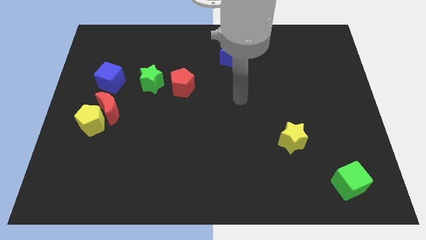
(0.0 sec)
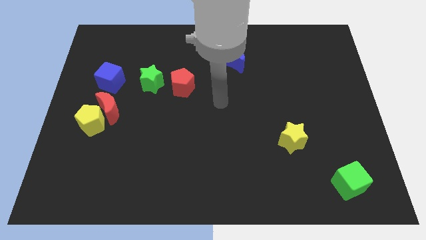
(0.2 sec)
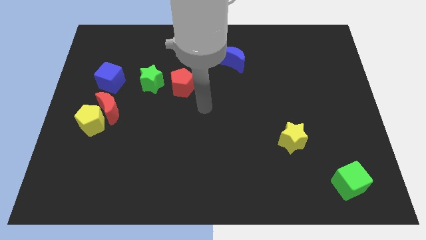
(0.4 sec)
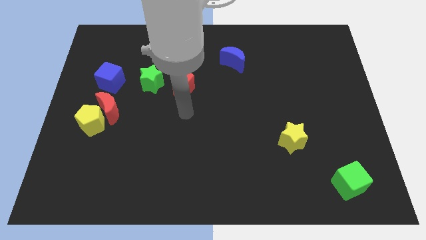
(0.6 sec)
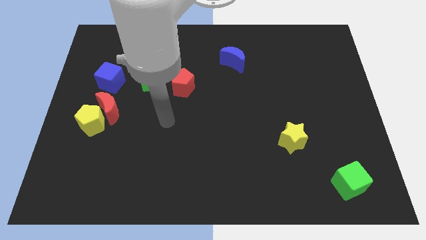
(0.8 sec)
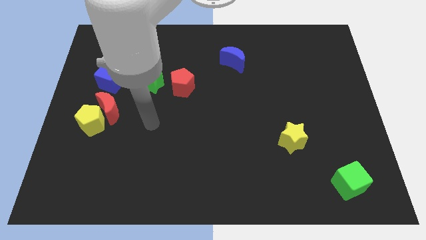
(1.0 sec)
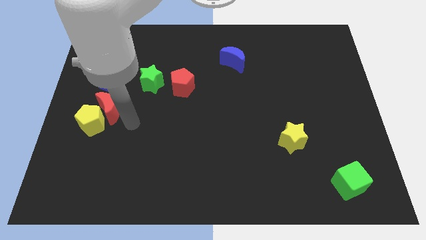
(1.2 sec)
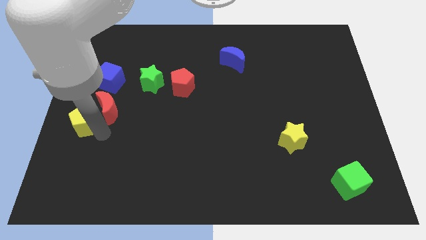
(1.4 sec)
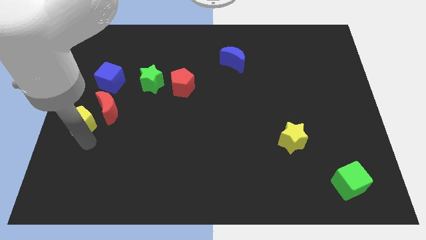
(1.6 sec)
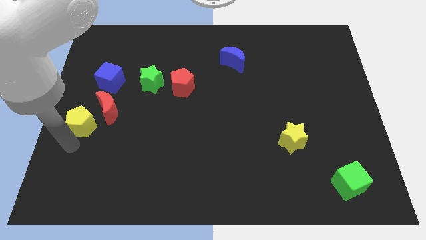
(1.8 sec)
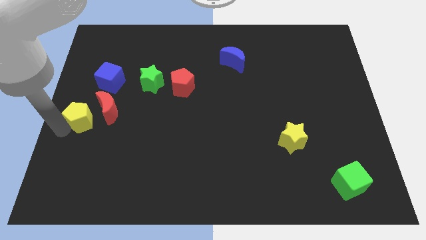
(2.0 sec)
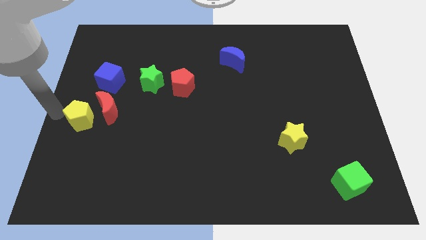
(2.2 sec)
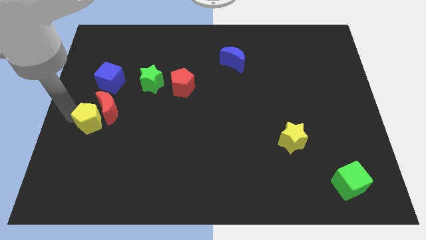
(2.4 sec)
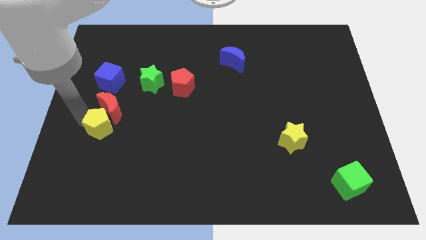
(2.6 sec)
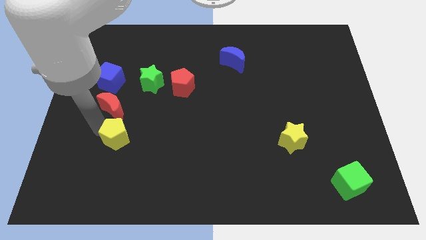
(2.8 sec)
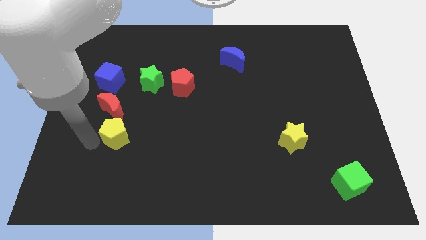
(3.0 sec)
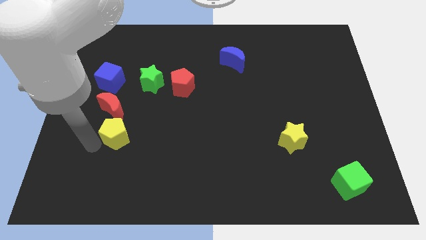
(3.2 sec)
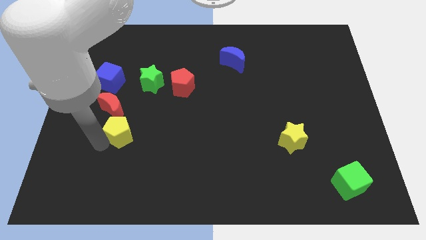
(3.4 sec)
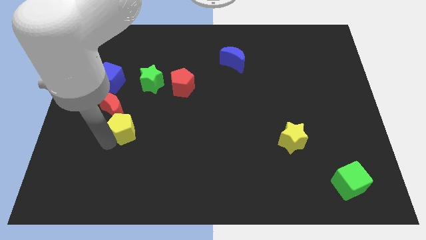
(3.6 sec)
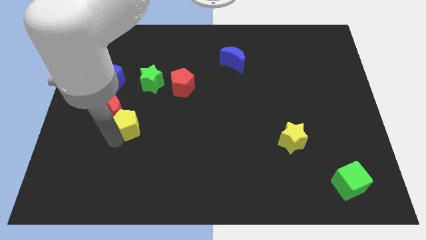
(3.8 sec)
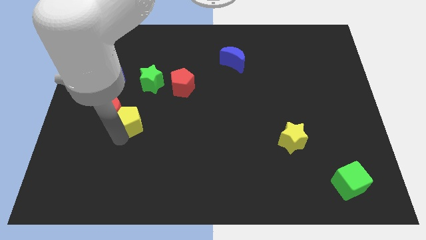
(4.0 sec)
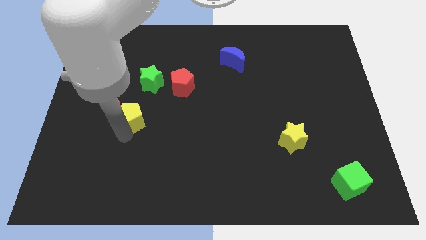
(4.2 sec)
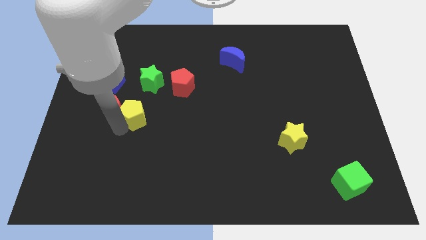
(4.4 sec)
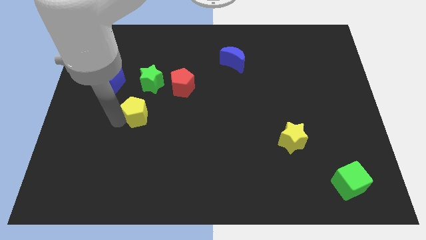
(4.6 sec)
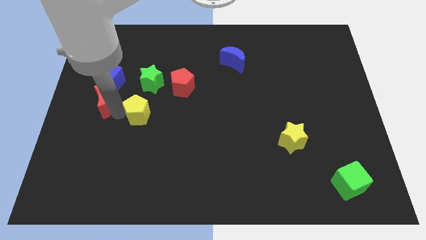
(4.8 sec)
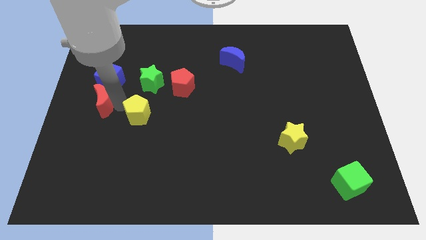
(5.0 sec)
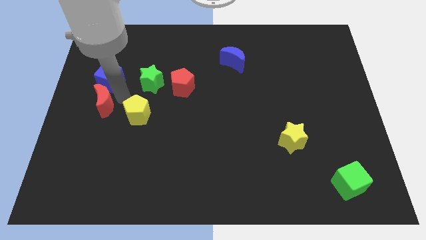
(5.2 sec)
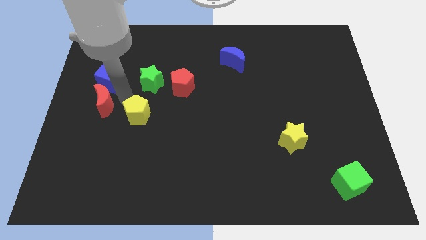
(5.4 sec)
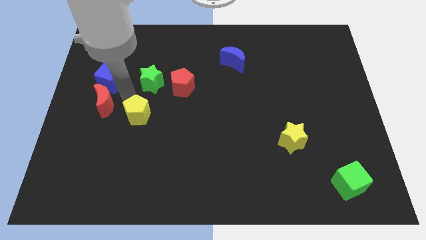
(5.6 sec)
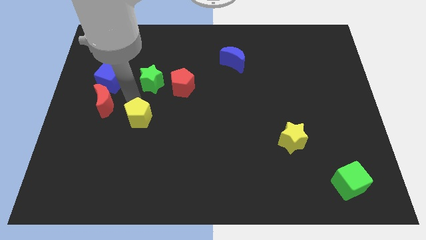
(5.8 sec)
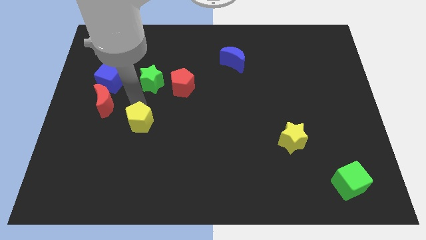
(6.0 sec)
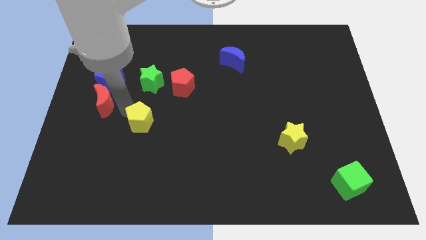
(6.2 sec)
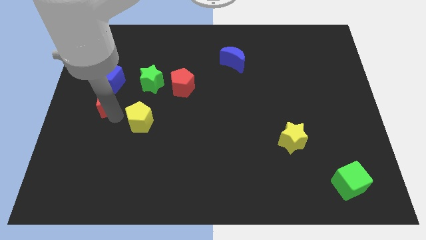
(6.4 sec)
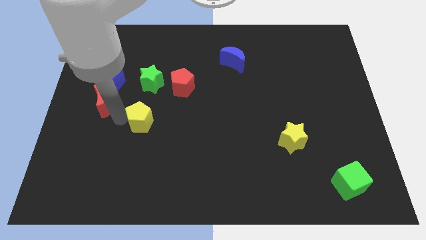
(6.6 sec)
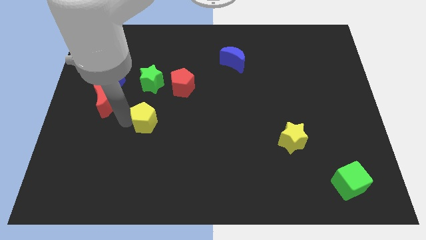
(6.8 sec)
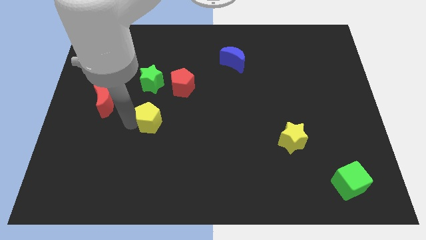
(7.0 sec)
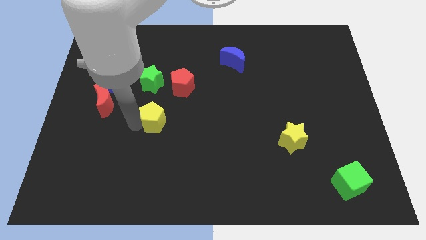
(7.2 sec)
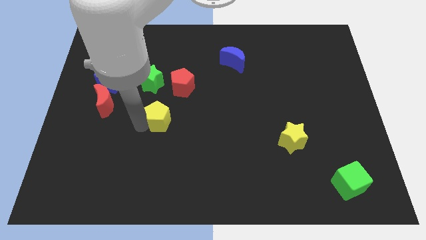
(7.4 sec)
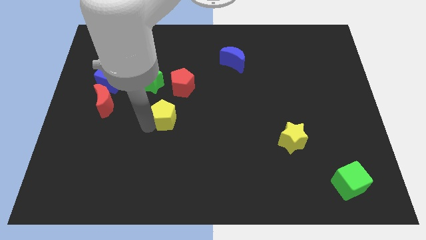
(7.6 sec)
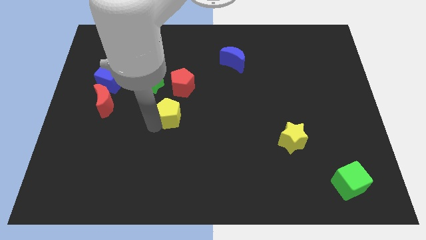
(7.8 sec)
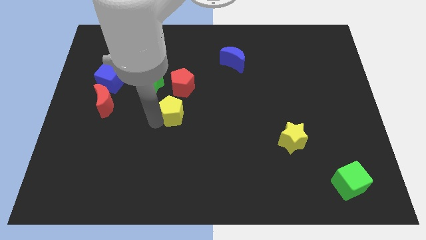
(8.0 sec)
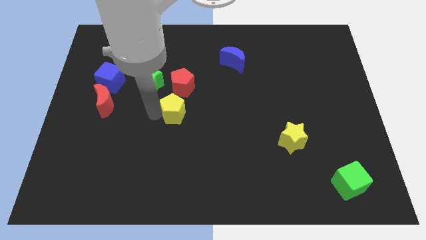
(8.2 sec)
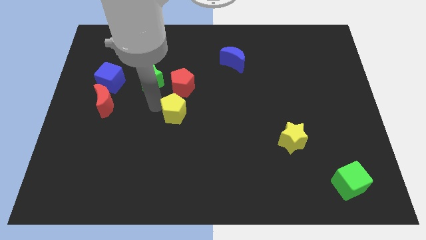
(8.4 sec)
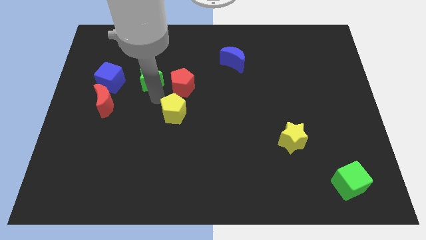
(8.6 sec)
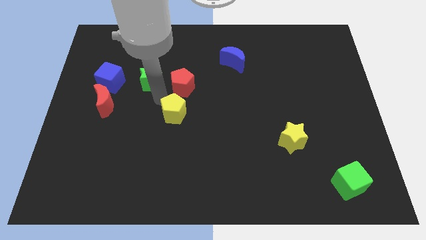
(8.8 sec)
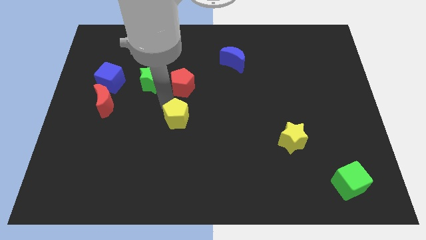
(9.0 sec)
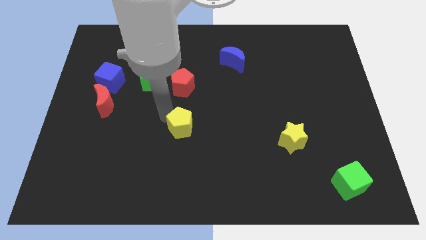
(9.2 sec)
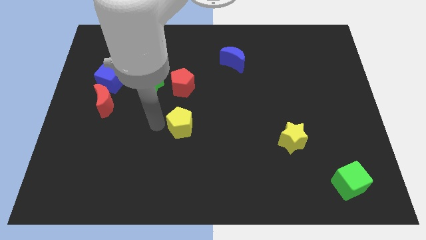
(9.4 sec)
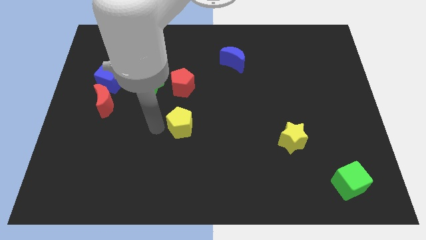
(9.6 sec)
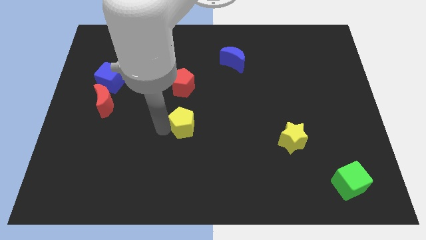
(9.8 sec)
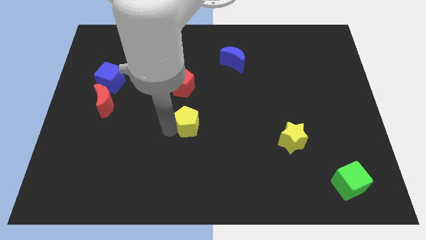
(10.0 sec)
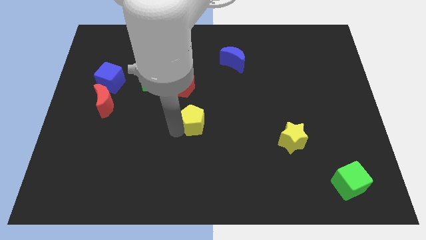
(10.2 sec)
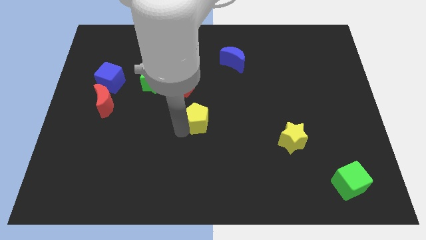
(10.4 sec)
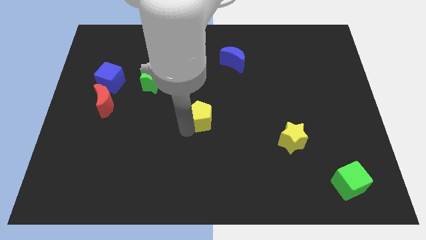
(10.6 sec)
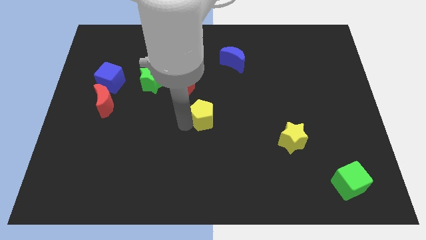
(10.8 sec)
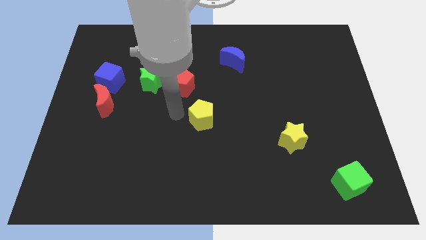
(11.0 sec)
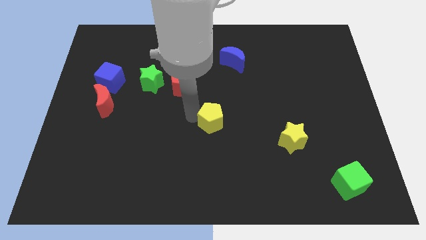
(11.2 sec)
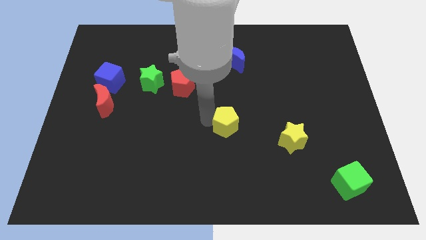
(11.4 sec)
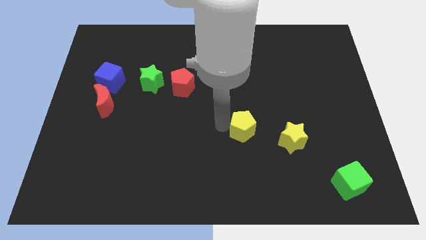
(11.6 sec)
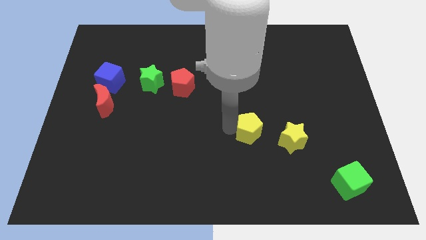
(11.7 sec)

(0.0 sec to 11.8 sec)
move the yellow pentagon diagonally up and to the left of the yellow star

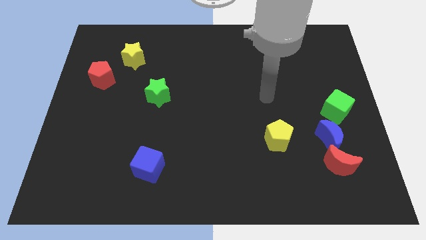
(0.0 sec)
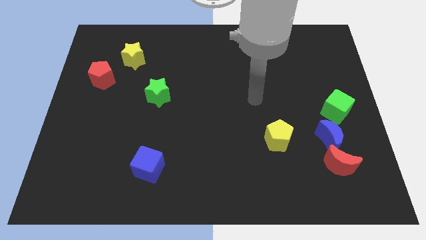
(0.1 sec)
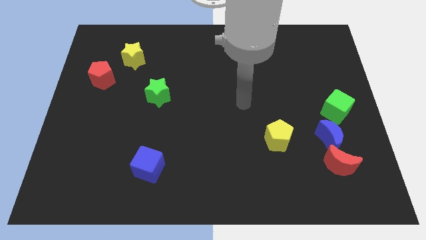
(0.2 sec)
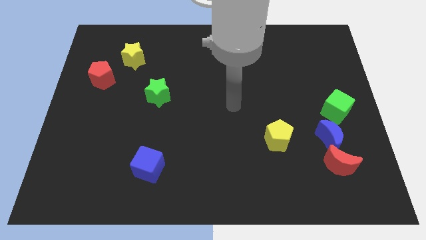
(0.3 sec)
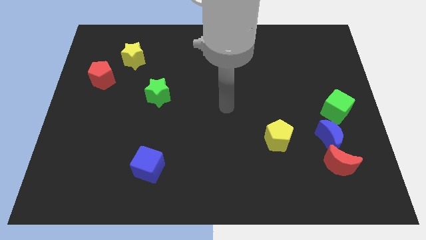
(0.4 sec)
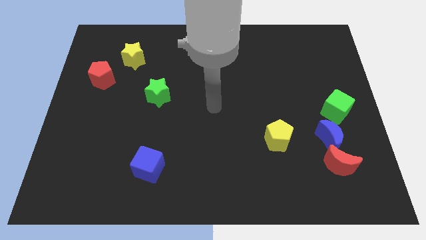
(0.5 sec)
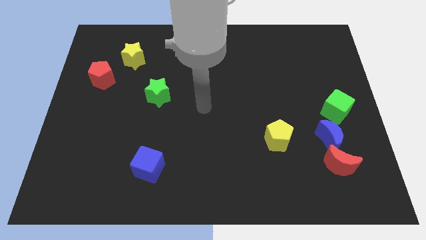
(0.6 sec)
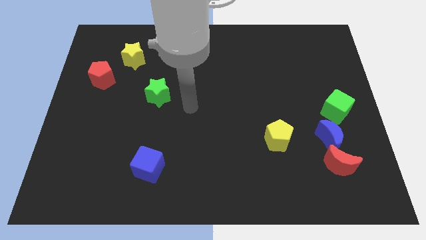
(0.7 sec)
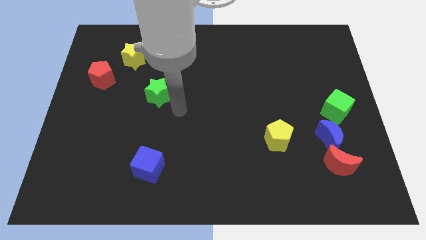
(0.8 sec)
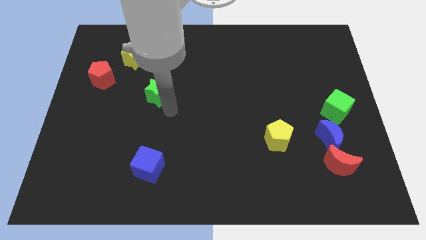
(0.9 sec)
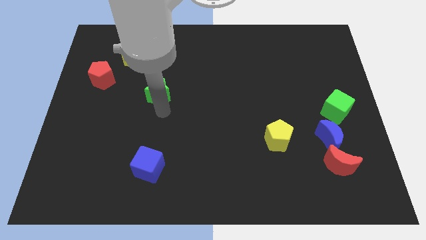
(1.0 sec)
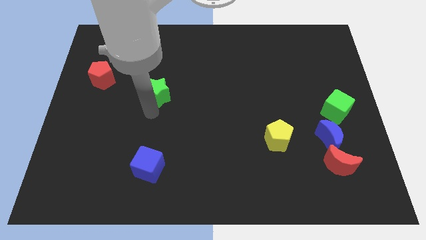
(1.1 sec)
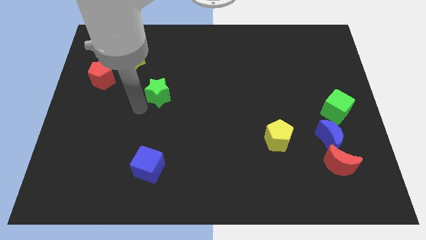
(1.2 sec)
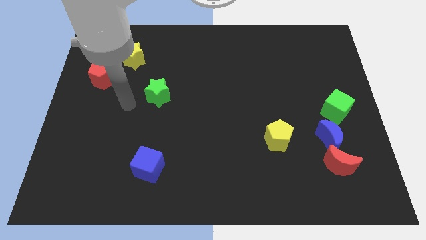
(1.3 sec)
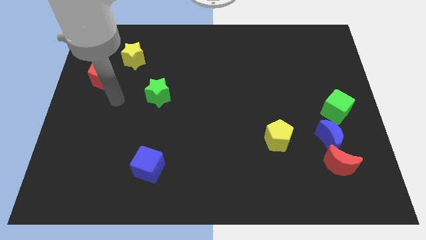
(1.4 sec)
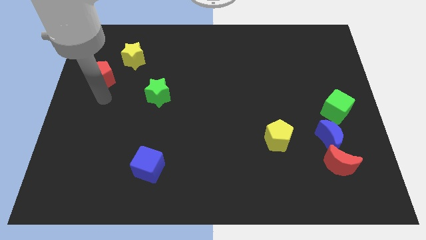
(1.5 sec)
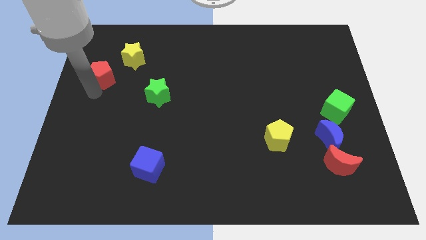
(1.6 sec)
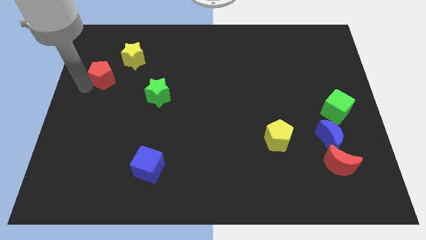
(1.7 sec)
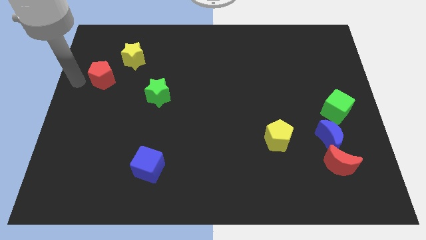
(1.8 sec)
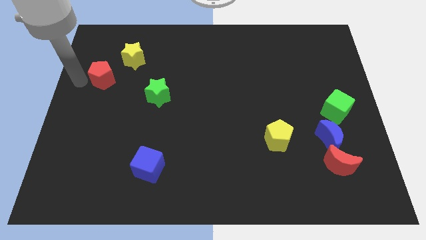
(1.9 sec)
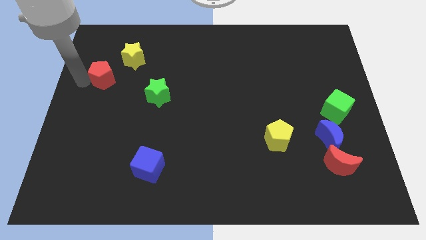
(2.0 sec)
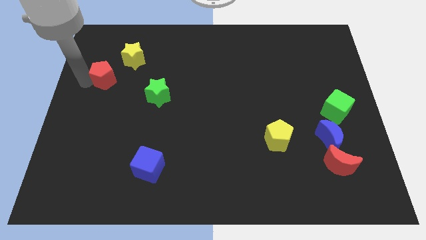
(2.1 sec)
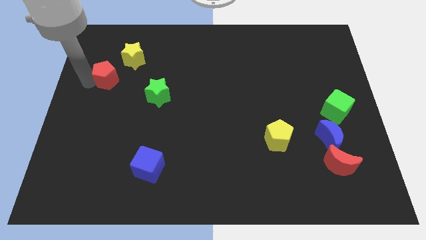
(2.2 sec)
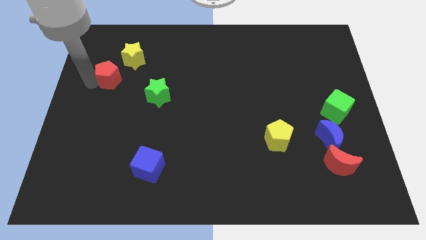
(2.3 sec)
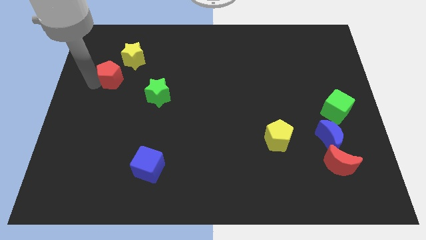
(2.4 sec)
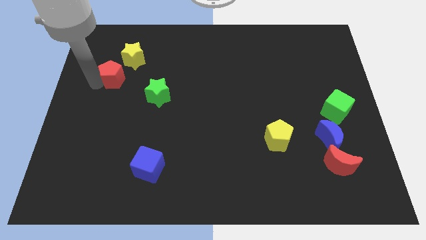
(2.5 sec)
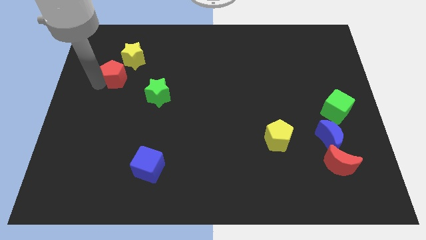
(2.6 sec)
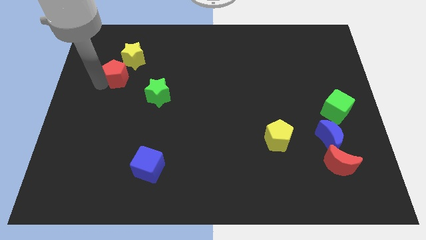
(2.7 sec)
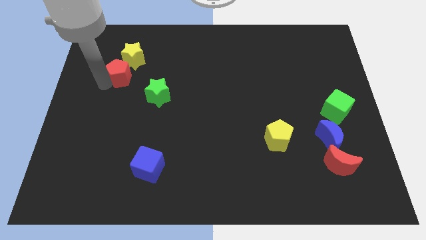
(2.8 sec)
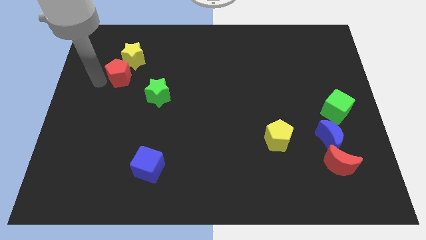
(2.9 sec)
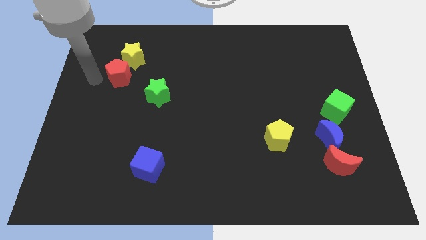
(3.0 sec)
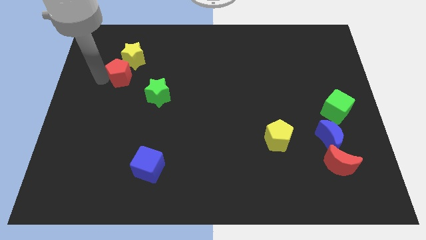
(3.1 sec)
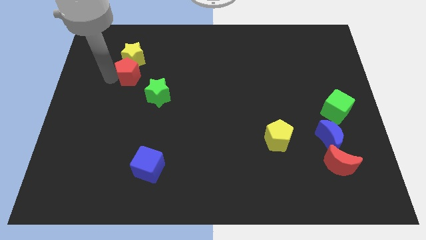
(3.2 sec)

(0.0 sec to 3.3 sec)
push the red pentagon to the bottom right side of the yellow star
